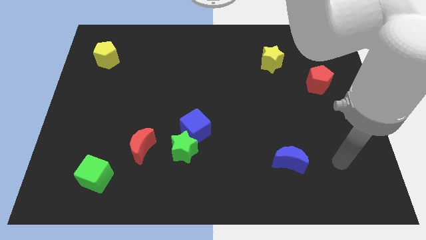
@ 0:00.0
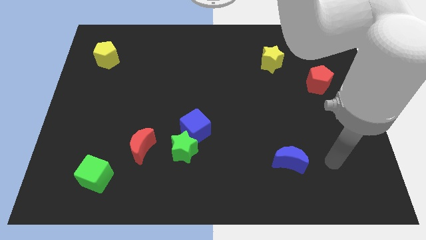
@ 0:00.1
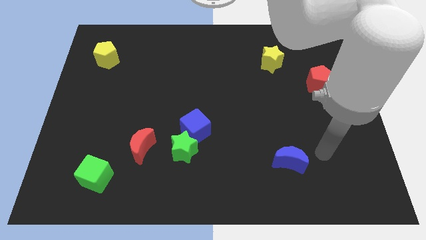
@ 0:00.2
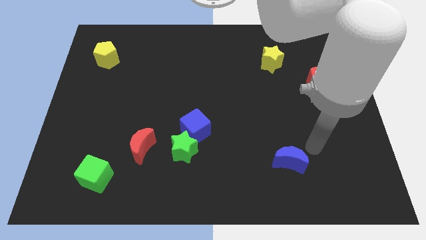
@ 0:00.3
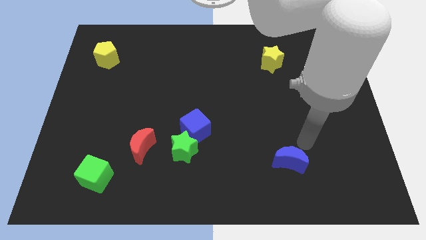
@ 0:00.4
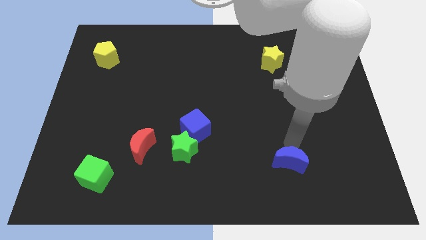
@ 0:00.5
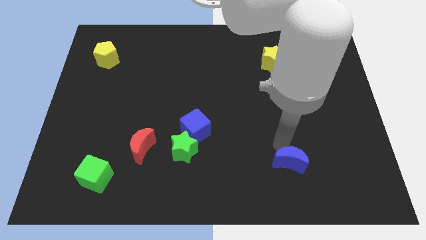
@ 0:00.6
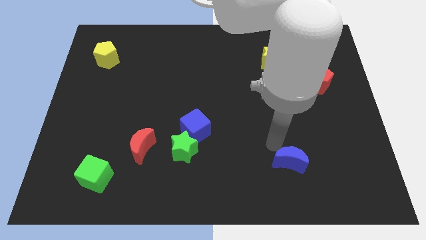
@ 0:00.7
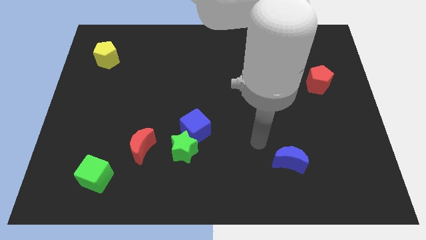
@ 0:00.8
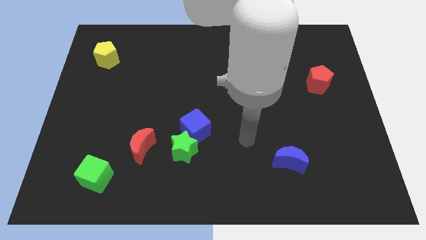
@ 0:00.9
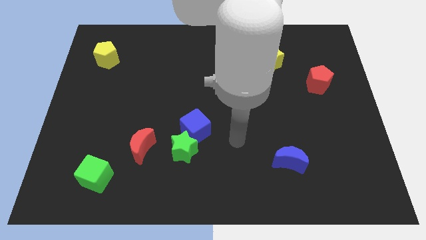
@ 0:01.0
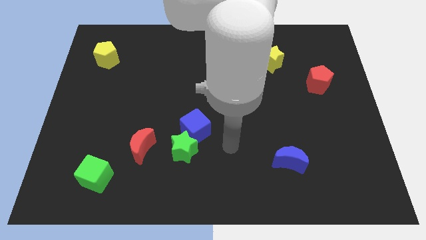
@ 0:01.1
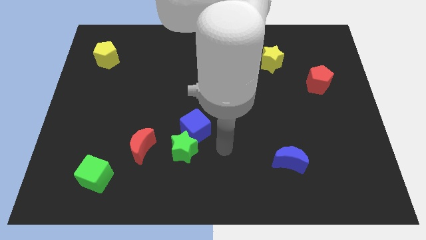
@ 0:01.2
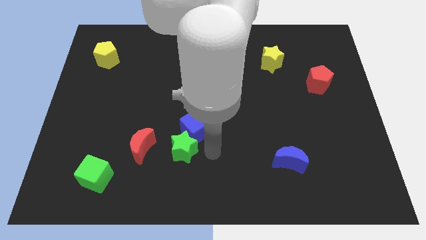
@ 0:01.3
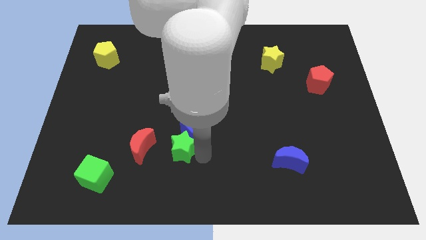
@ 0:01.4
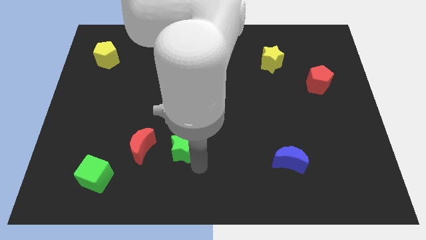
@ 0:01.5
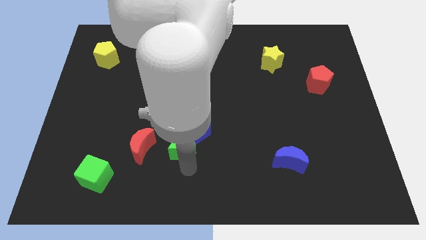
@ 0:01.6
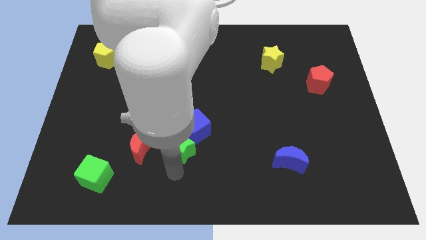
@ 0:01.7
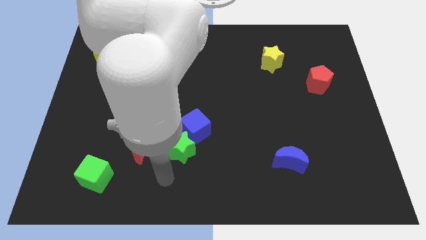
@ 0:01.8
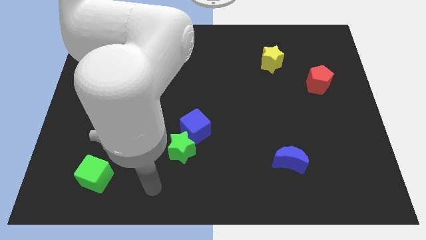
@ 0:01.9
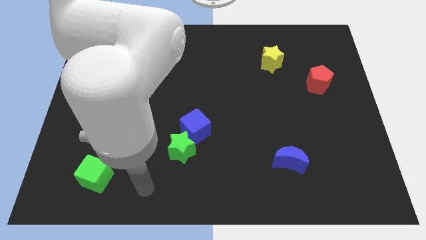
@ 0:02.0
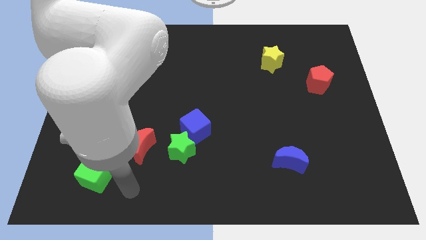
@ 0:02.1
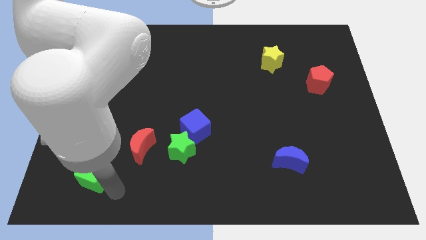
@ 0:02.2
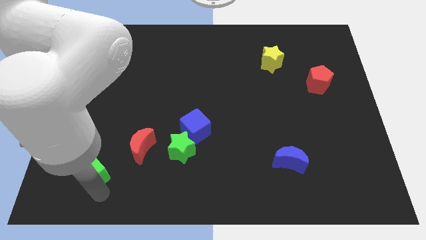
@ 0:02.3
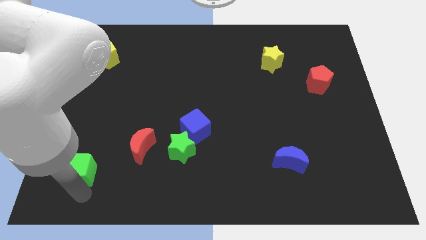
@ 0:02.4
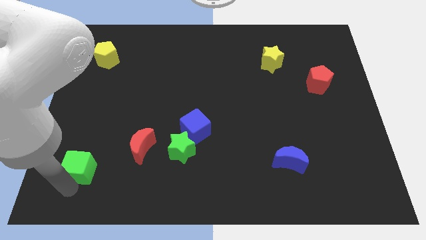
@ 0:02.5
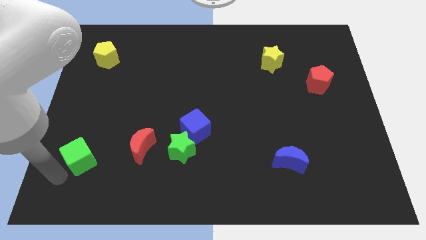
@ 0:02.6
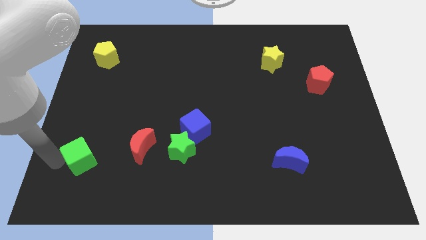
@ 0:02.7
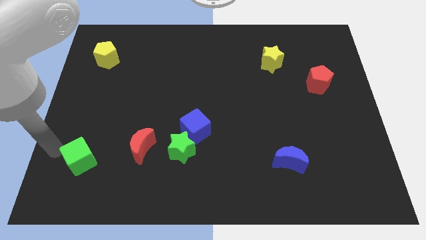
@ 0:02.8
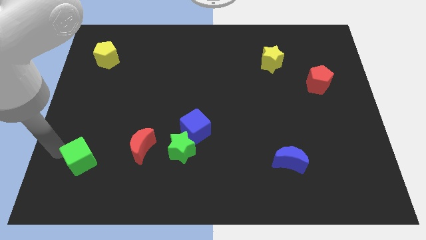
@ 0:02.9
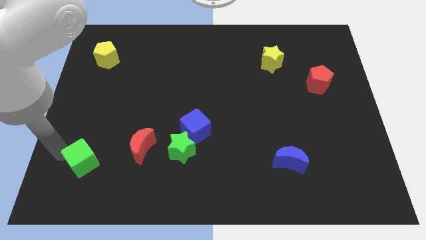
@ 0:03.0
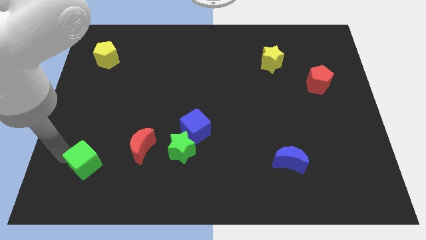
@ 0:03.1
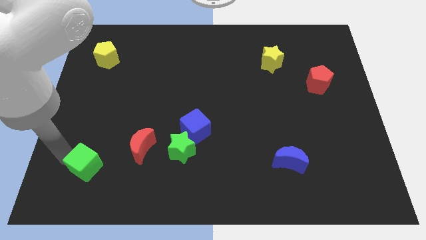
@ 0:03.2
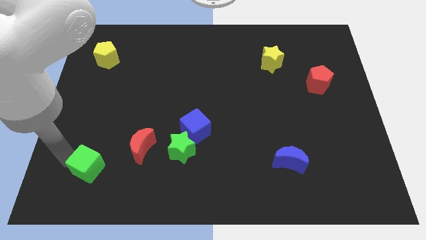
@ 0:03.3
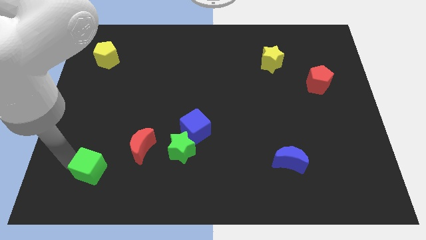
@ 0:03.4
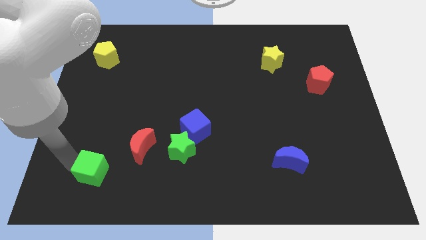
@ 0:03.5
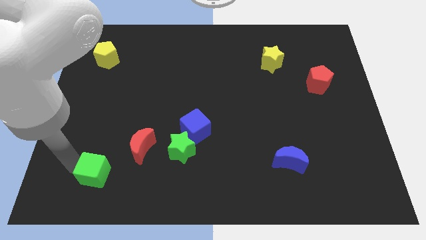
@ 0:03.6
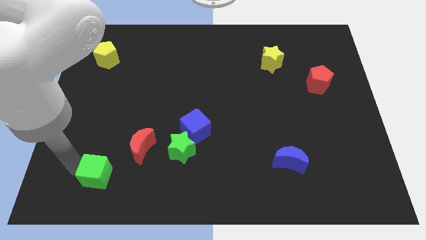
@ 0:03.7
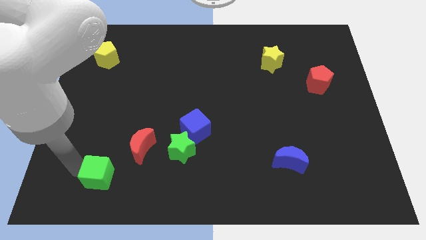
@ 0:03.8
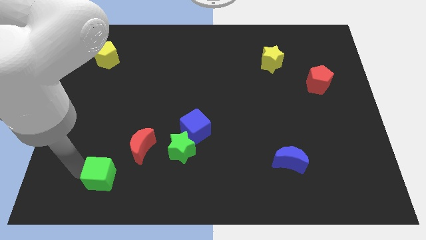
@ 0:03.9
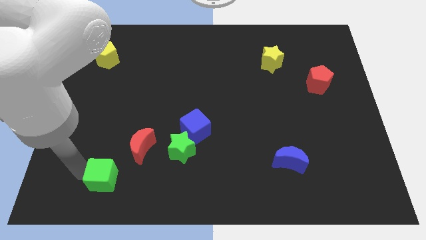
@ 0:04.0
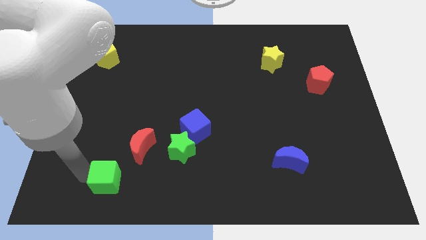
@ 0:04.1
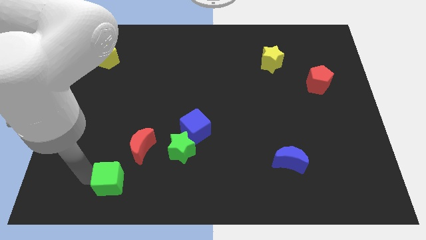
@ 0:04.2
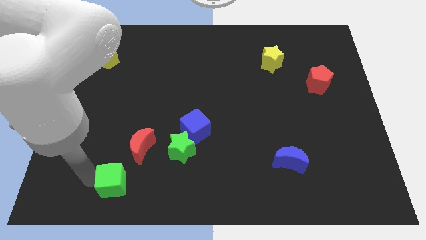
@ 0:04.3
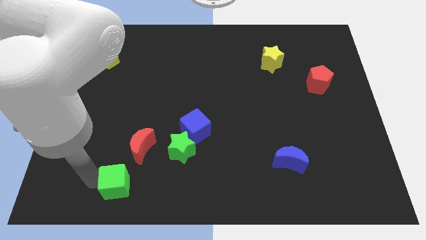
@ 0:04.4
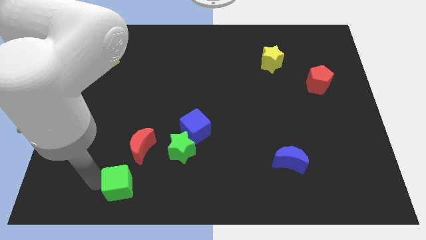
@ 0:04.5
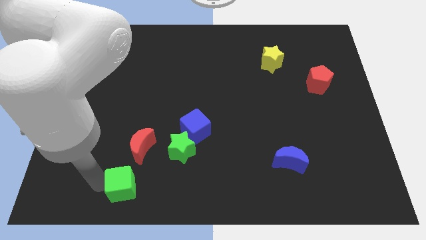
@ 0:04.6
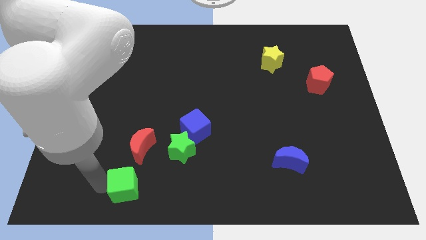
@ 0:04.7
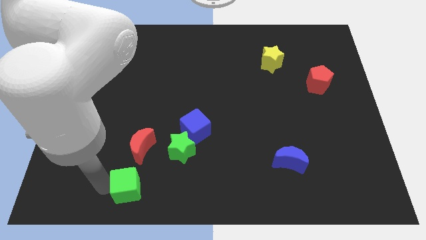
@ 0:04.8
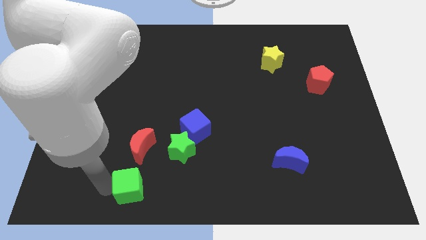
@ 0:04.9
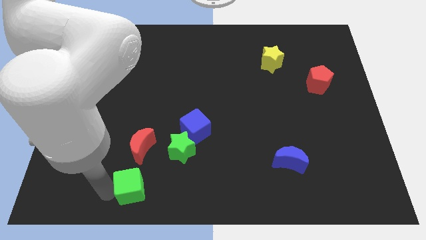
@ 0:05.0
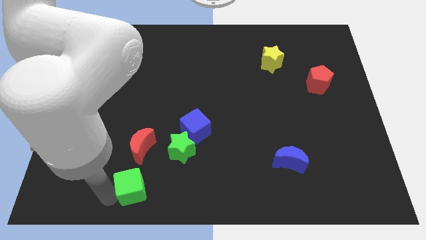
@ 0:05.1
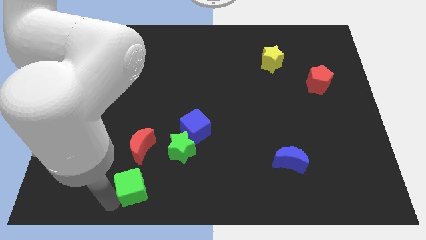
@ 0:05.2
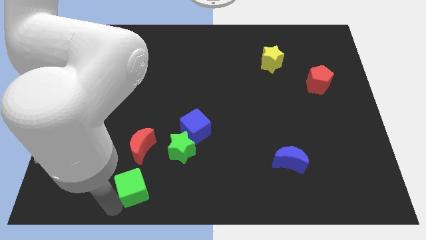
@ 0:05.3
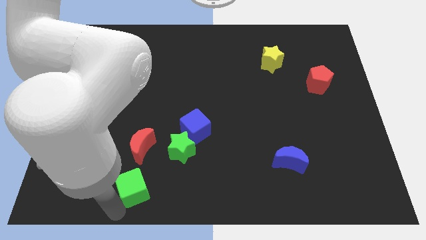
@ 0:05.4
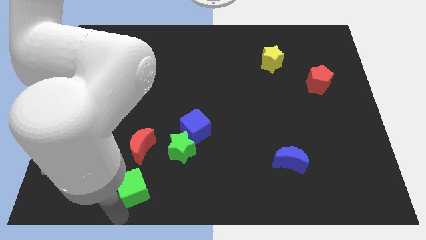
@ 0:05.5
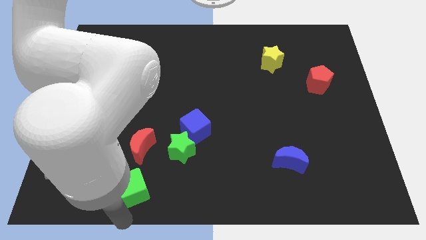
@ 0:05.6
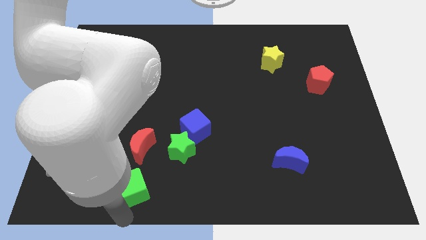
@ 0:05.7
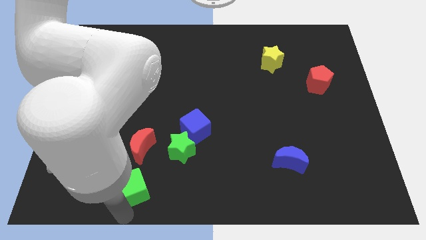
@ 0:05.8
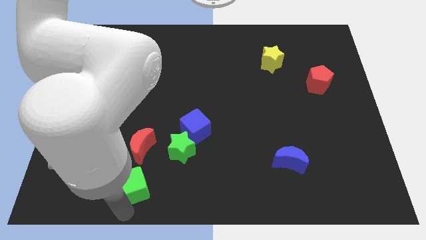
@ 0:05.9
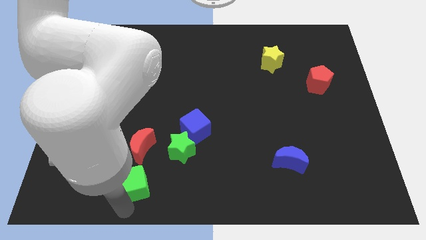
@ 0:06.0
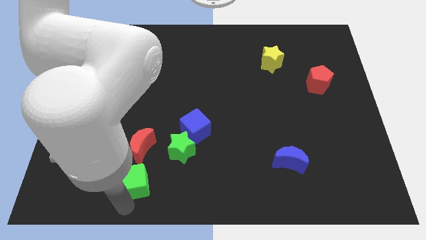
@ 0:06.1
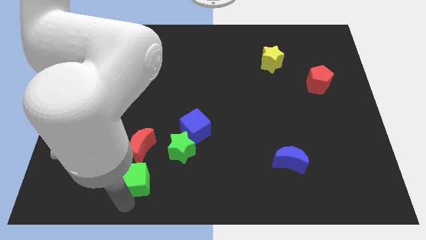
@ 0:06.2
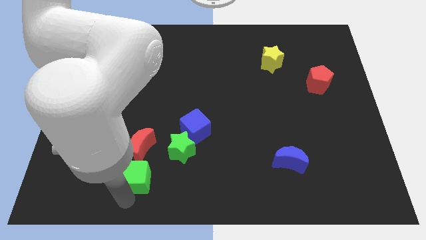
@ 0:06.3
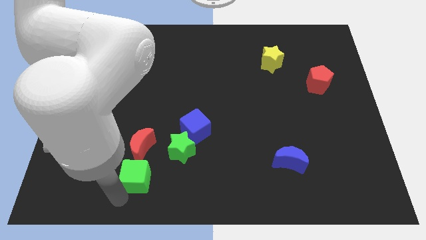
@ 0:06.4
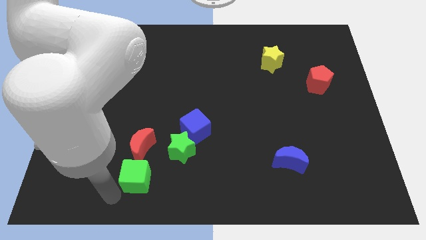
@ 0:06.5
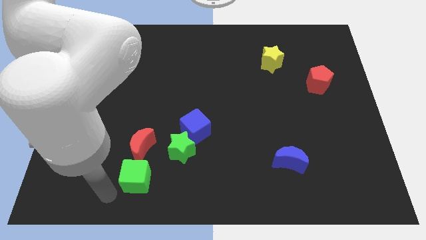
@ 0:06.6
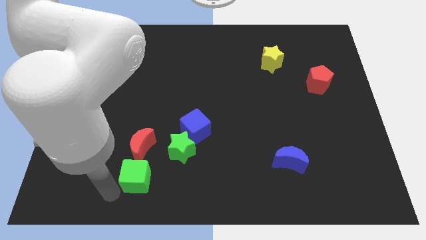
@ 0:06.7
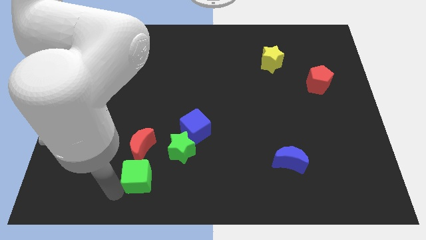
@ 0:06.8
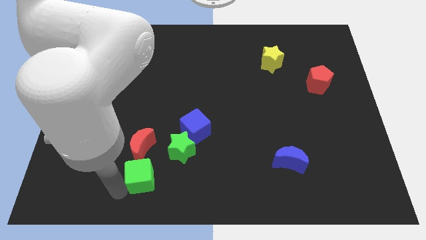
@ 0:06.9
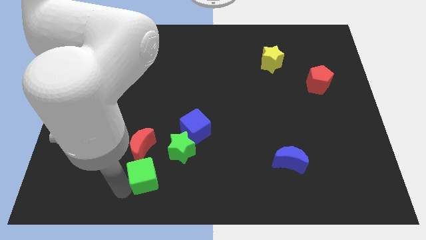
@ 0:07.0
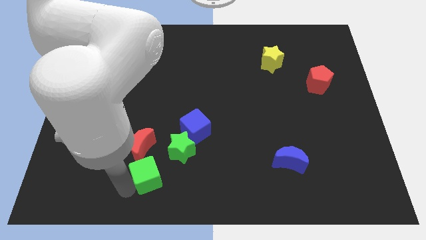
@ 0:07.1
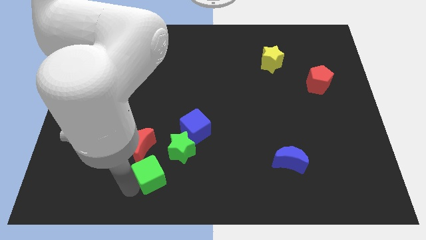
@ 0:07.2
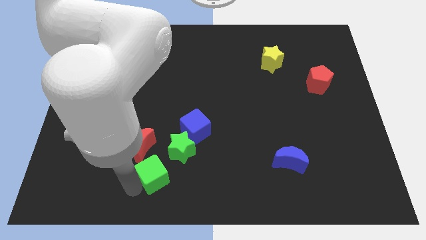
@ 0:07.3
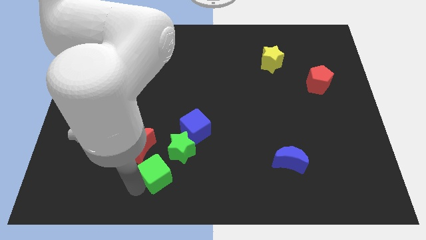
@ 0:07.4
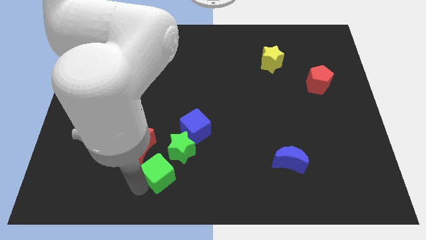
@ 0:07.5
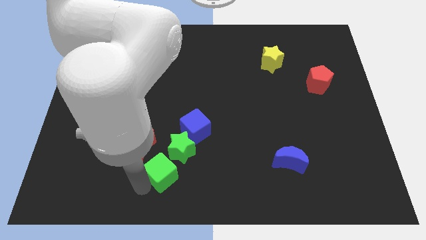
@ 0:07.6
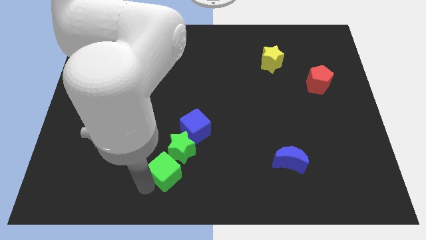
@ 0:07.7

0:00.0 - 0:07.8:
put the green cube to the green star
